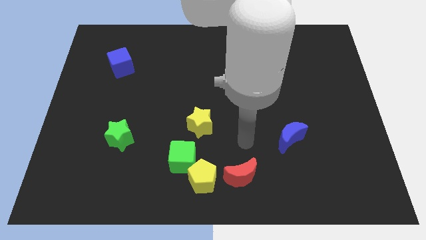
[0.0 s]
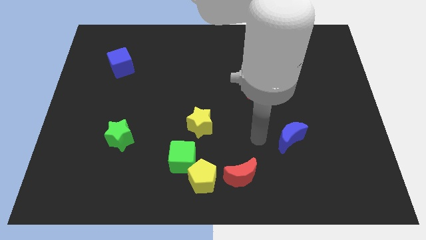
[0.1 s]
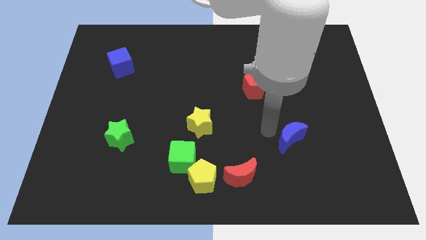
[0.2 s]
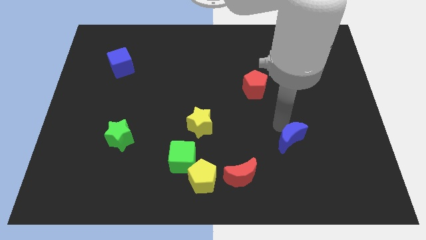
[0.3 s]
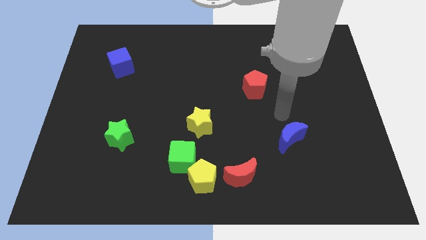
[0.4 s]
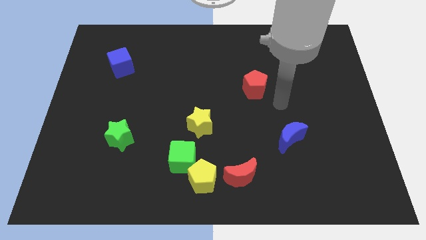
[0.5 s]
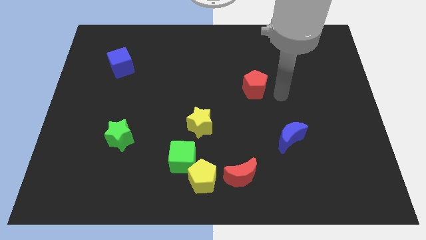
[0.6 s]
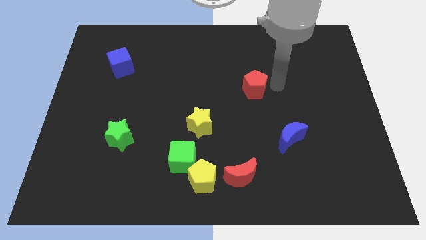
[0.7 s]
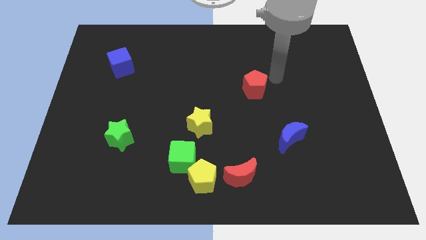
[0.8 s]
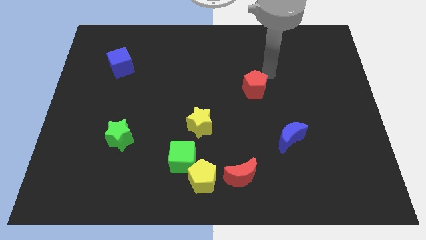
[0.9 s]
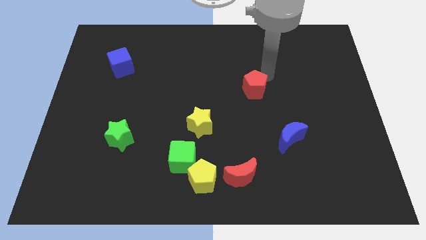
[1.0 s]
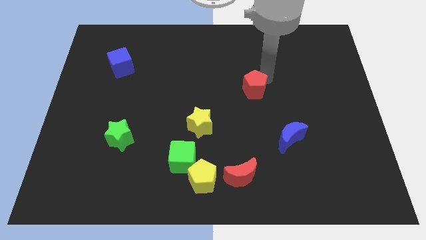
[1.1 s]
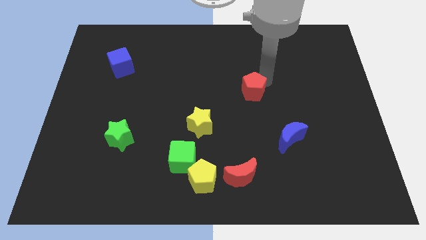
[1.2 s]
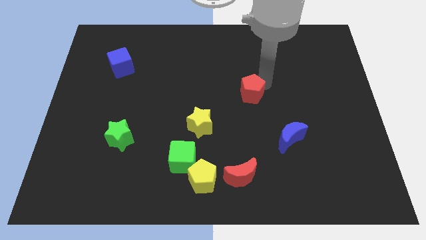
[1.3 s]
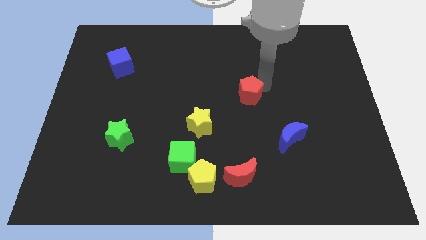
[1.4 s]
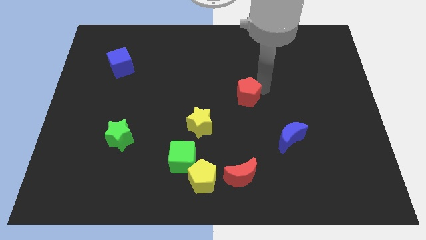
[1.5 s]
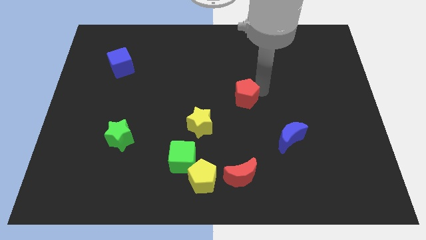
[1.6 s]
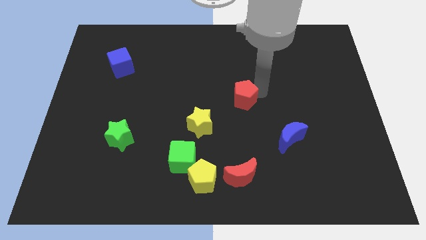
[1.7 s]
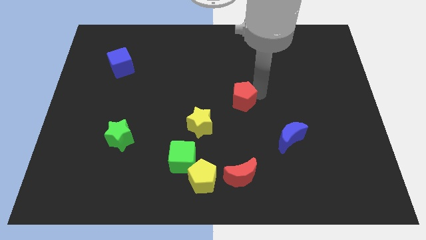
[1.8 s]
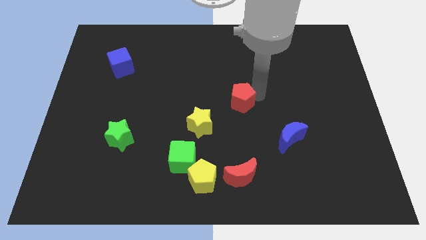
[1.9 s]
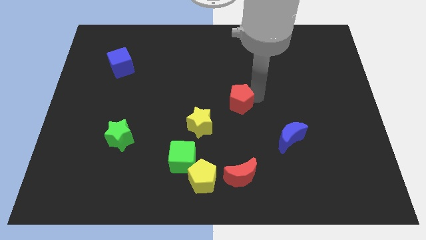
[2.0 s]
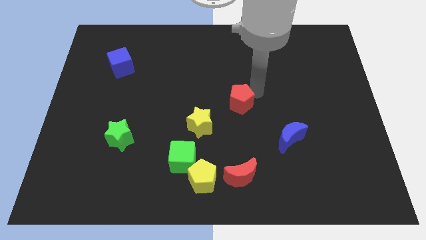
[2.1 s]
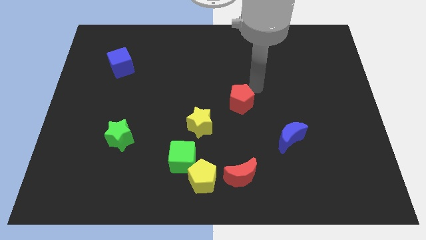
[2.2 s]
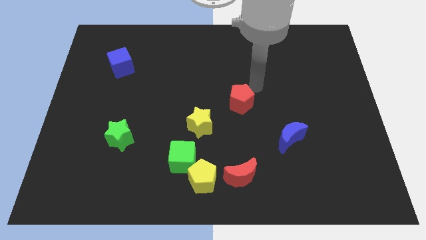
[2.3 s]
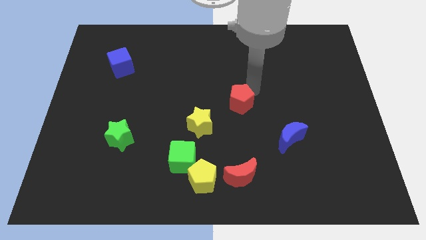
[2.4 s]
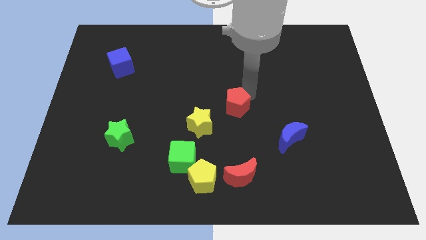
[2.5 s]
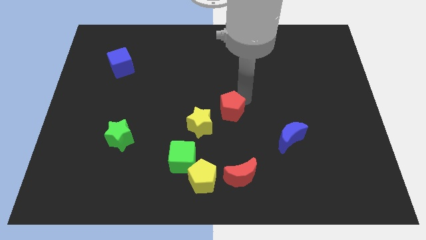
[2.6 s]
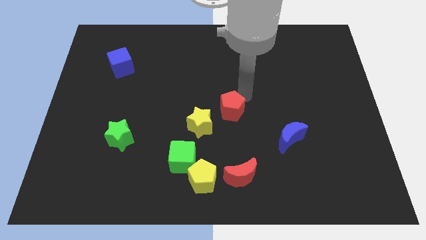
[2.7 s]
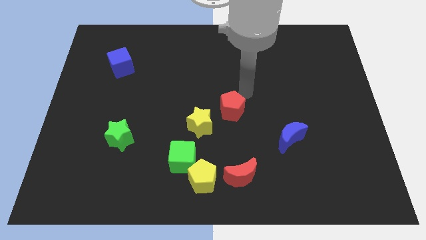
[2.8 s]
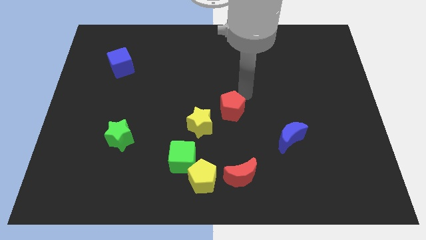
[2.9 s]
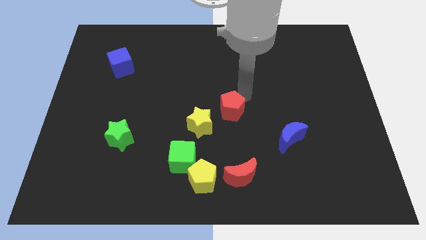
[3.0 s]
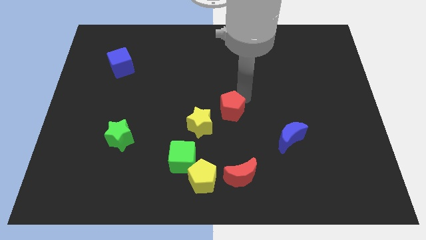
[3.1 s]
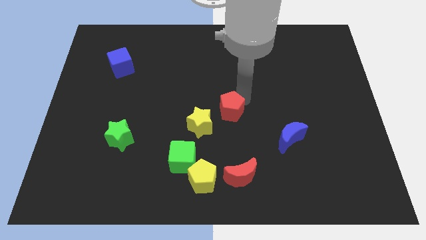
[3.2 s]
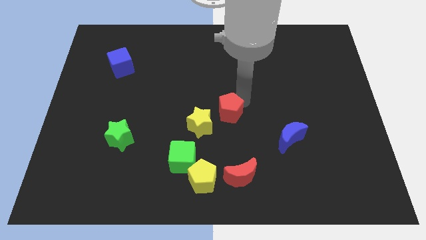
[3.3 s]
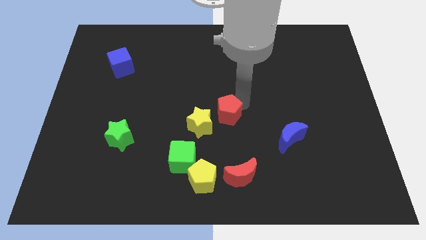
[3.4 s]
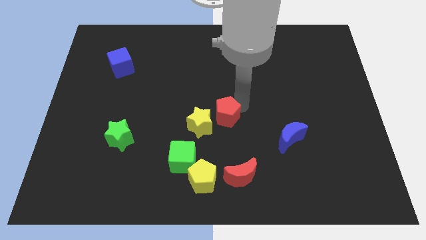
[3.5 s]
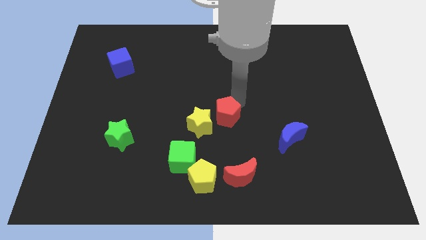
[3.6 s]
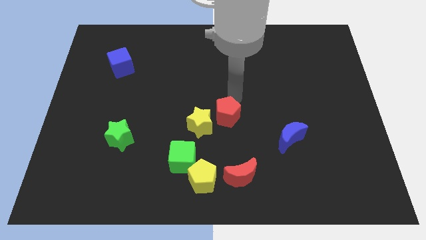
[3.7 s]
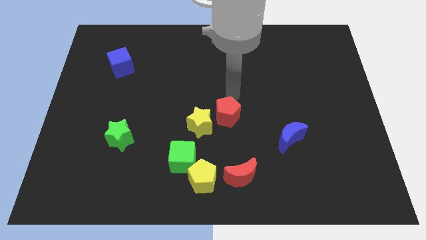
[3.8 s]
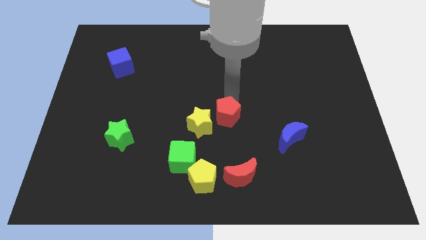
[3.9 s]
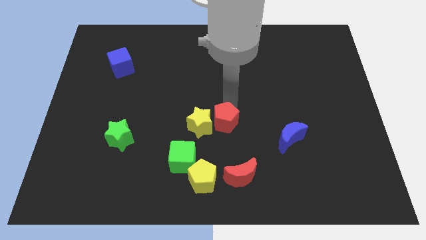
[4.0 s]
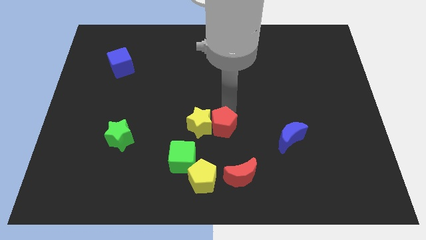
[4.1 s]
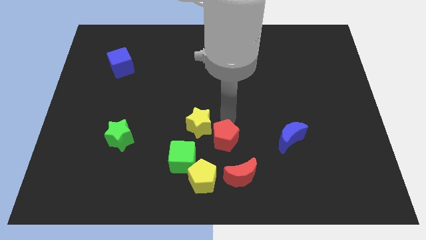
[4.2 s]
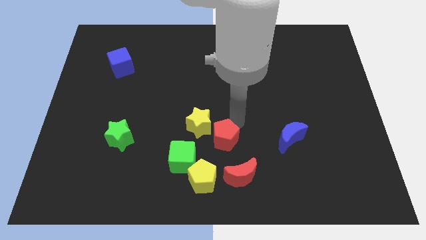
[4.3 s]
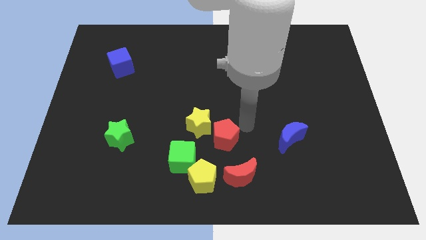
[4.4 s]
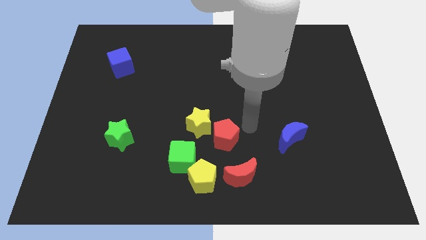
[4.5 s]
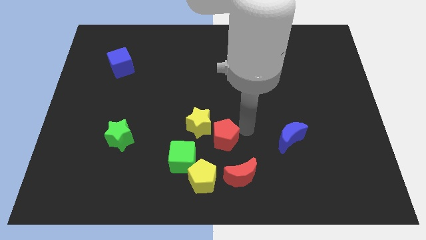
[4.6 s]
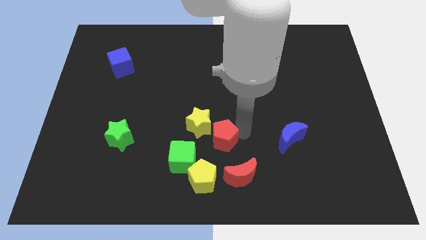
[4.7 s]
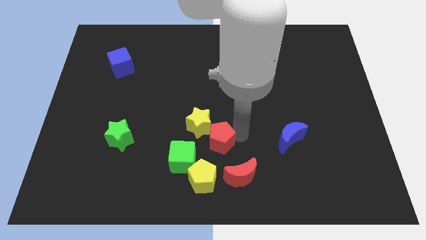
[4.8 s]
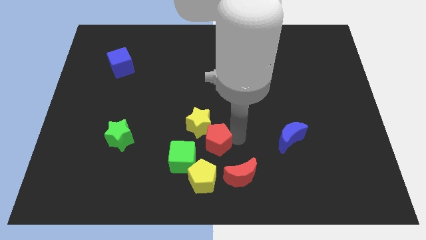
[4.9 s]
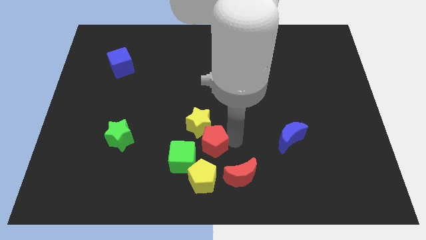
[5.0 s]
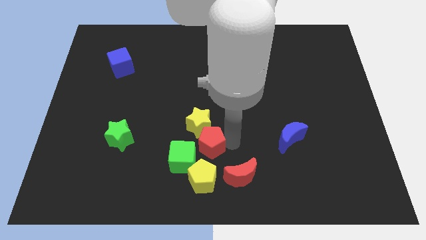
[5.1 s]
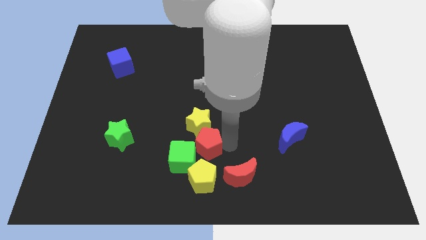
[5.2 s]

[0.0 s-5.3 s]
move the red pentagon to the green cube

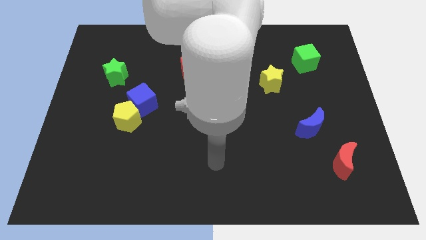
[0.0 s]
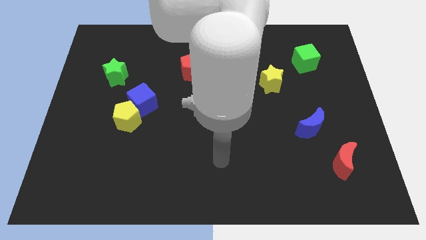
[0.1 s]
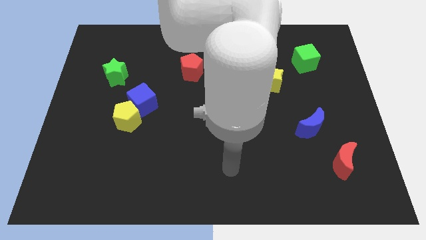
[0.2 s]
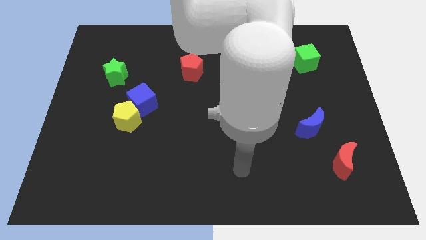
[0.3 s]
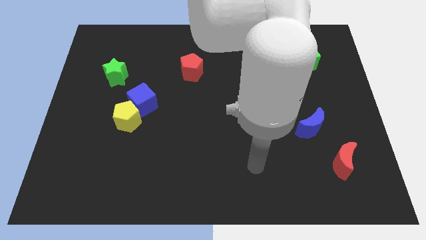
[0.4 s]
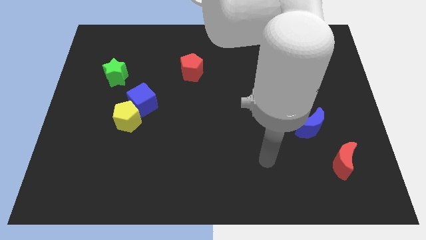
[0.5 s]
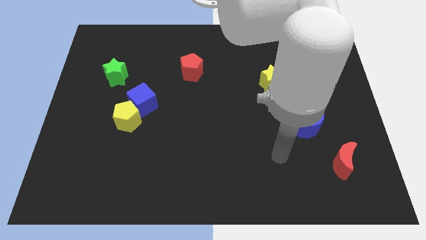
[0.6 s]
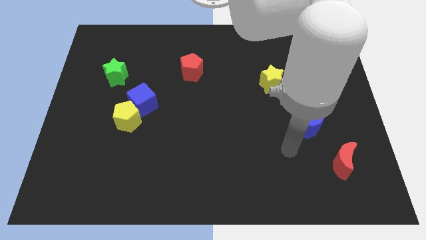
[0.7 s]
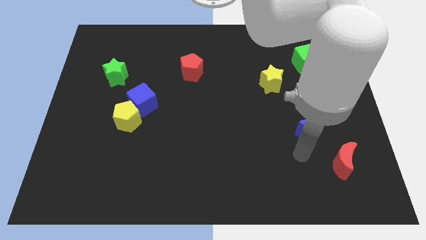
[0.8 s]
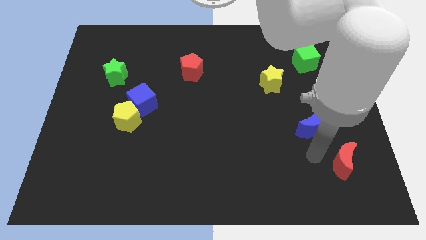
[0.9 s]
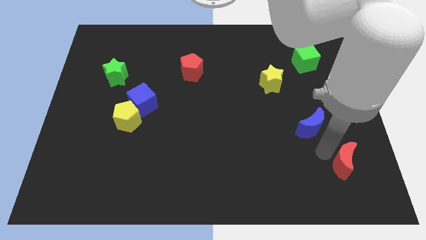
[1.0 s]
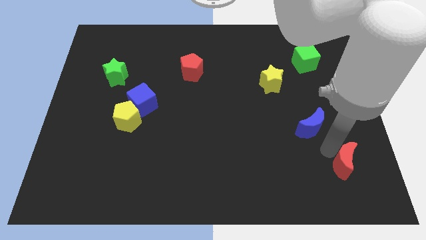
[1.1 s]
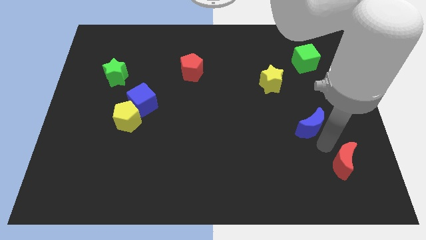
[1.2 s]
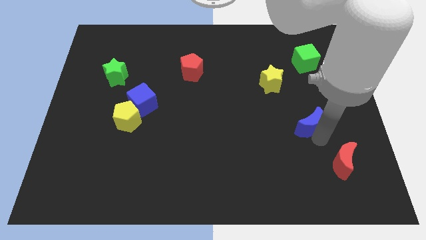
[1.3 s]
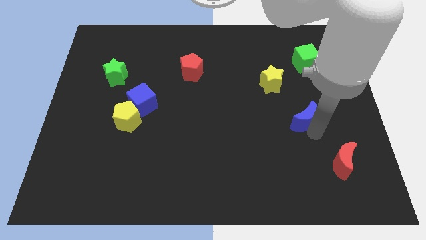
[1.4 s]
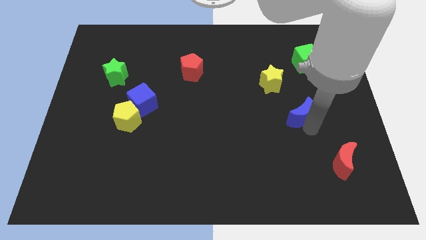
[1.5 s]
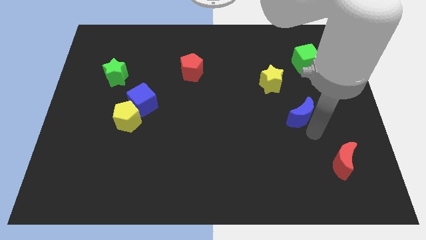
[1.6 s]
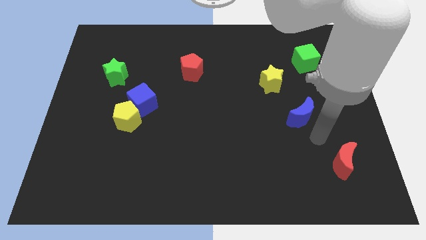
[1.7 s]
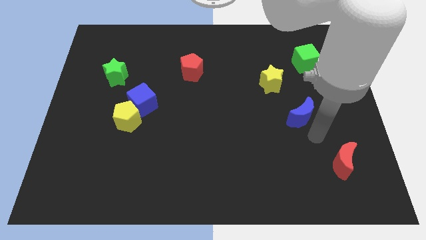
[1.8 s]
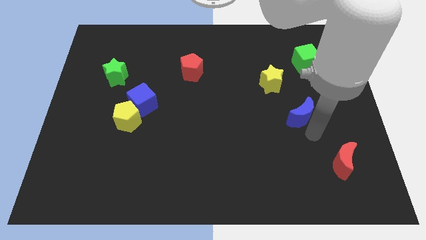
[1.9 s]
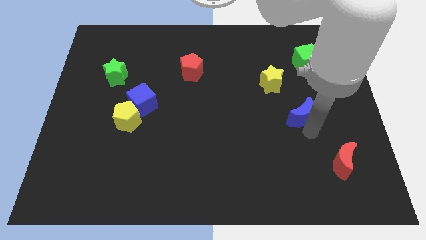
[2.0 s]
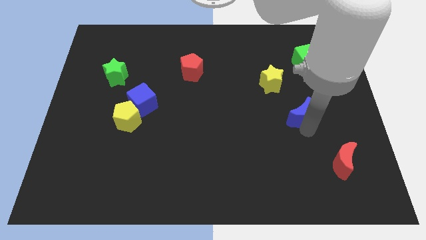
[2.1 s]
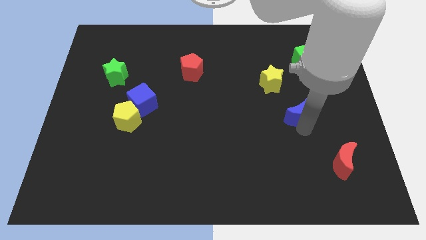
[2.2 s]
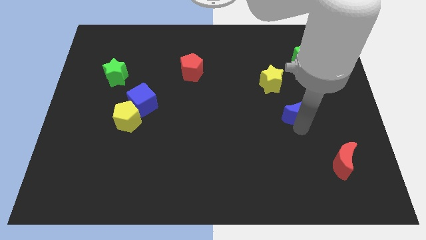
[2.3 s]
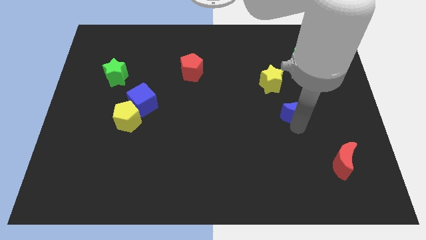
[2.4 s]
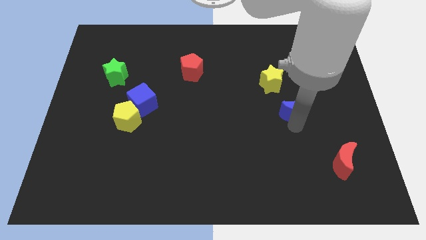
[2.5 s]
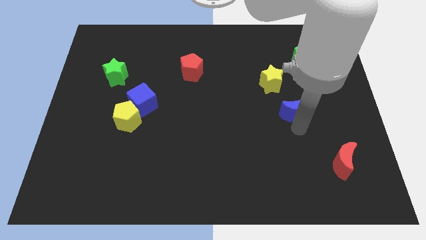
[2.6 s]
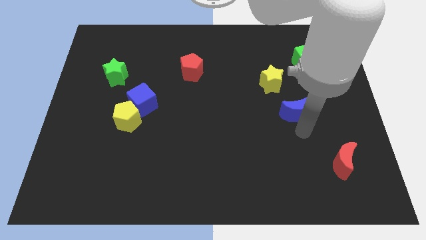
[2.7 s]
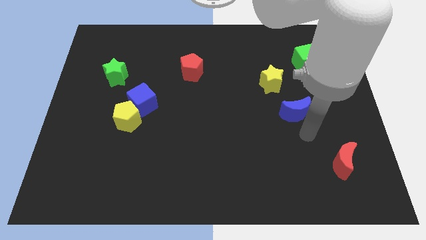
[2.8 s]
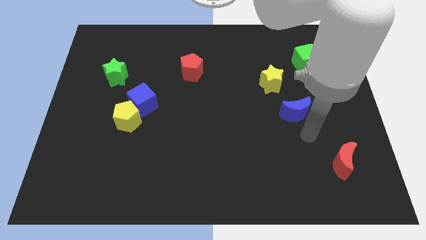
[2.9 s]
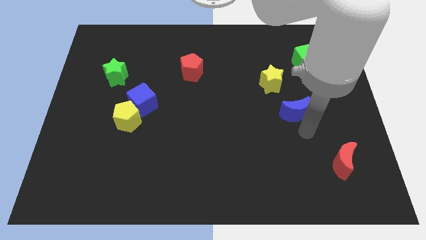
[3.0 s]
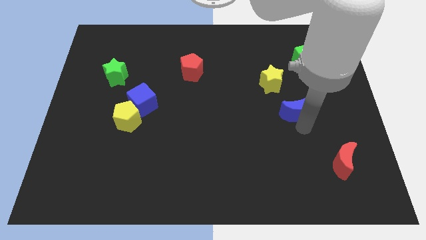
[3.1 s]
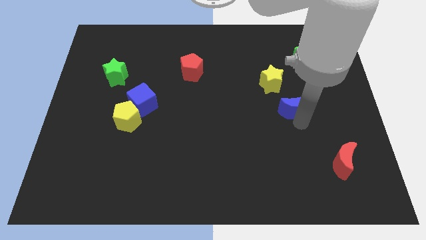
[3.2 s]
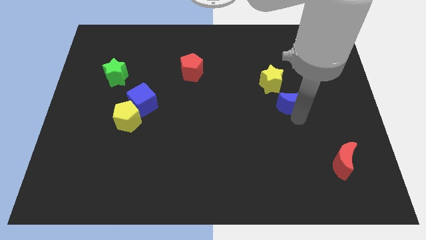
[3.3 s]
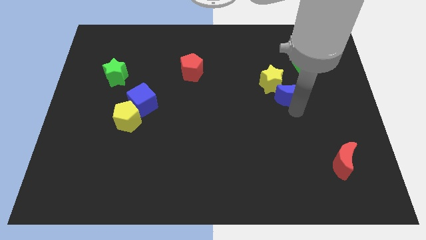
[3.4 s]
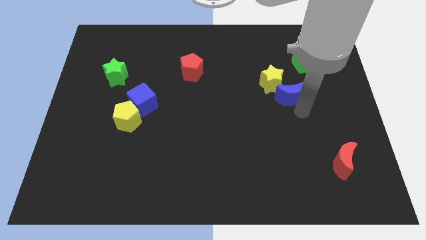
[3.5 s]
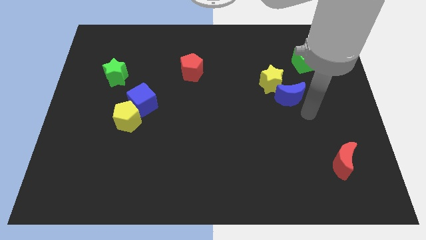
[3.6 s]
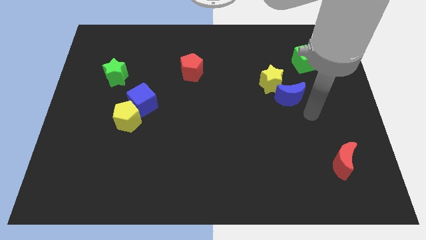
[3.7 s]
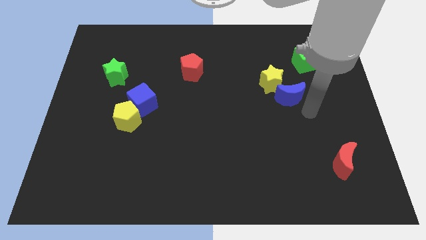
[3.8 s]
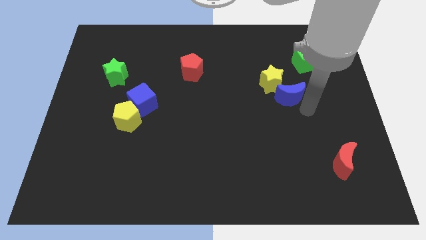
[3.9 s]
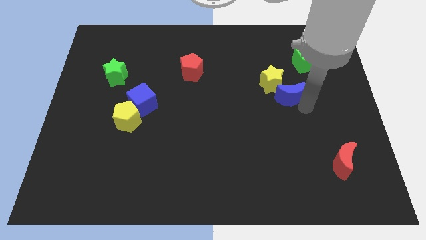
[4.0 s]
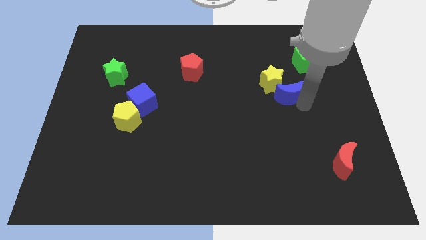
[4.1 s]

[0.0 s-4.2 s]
push the blue moon close to the yellow star
